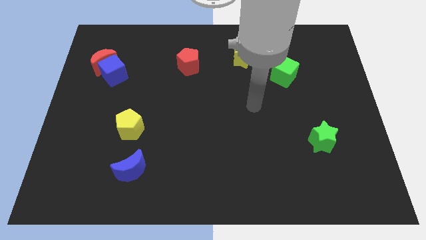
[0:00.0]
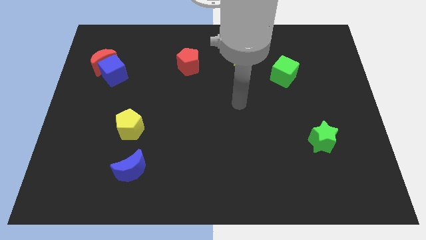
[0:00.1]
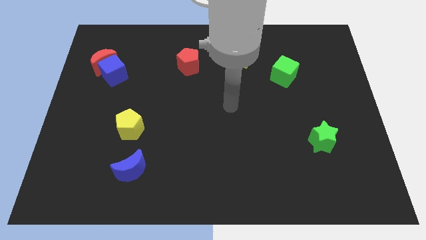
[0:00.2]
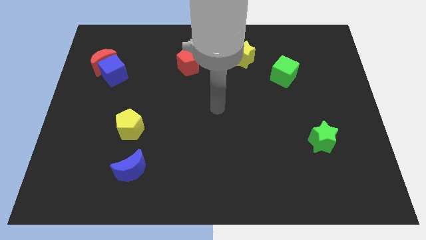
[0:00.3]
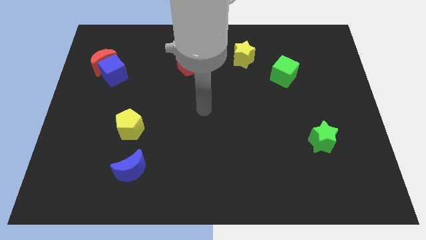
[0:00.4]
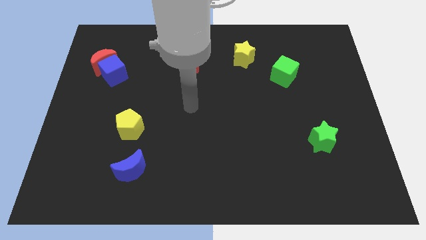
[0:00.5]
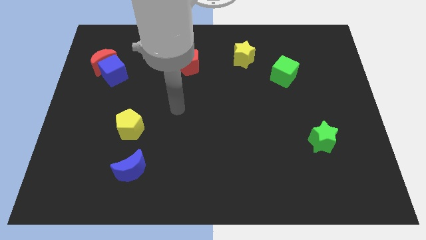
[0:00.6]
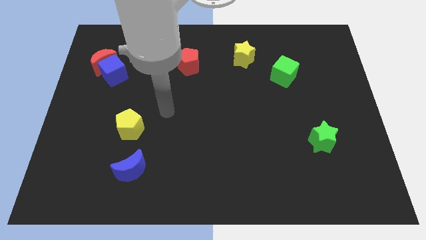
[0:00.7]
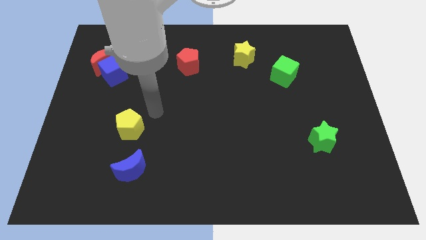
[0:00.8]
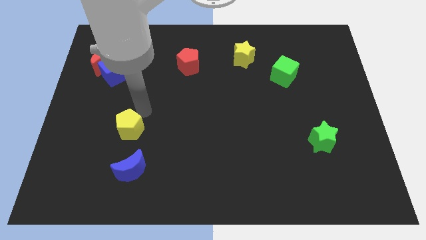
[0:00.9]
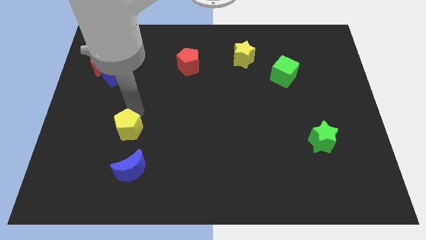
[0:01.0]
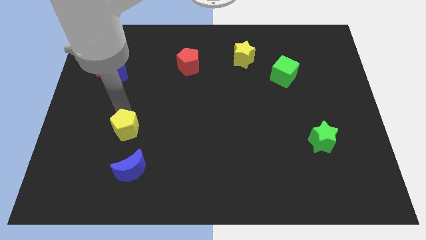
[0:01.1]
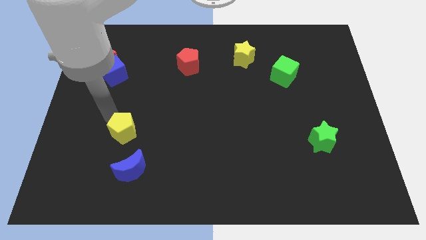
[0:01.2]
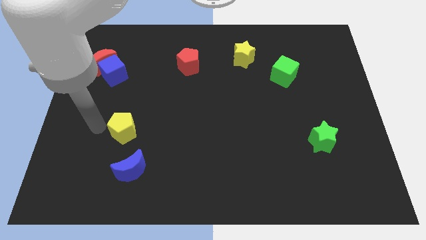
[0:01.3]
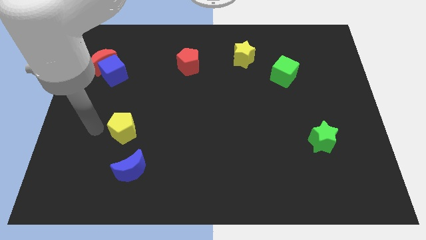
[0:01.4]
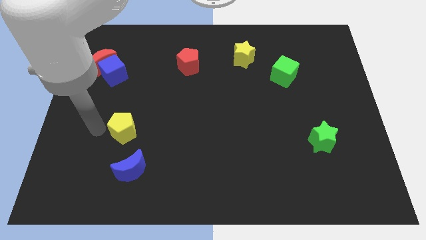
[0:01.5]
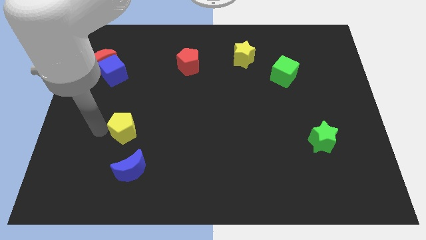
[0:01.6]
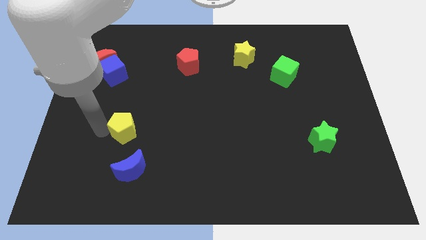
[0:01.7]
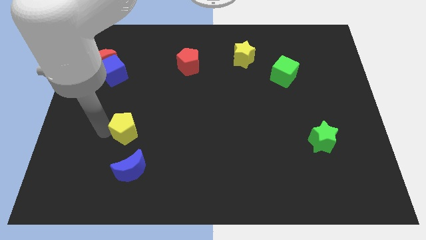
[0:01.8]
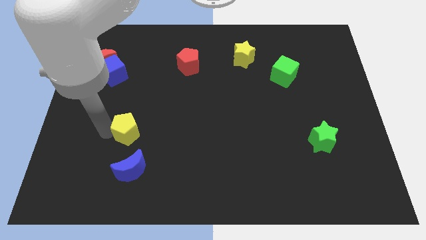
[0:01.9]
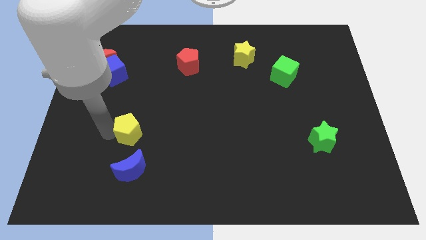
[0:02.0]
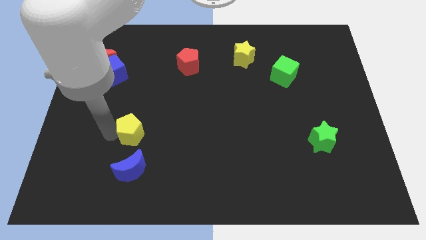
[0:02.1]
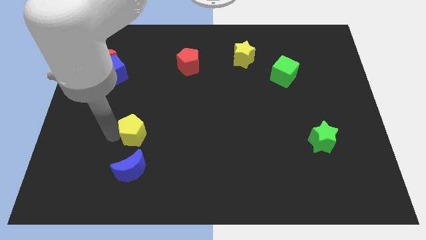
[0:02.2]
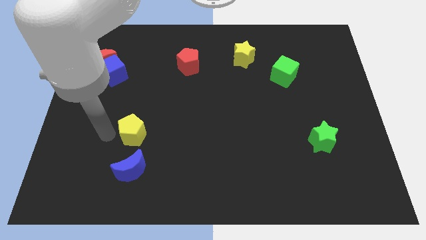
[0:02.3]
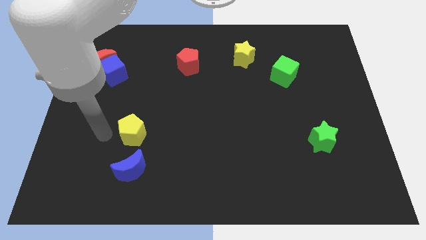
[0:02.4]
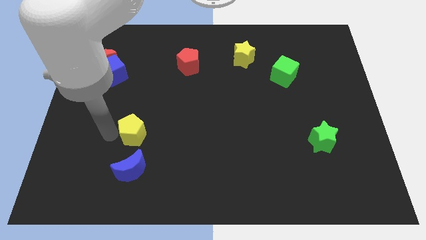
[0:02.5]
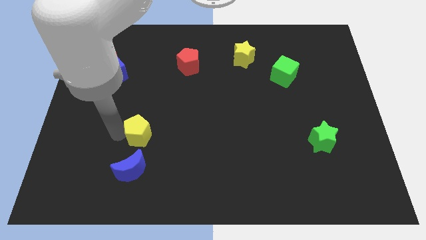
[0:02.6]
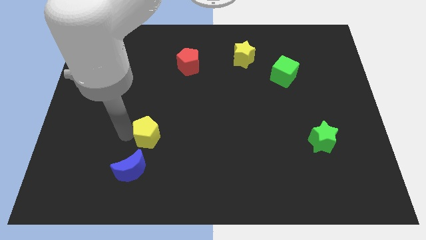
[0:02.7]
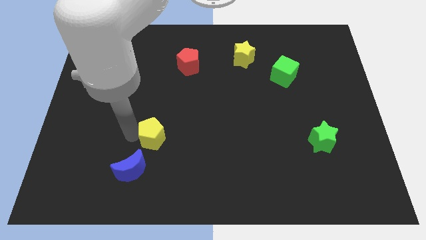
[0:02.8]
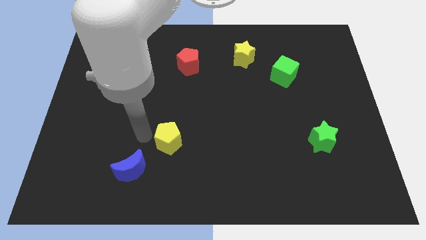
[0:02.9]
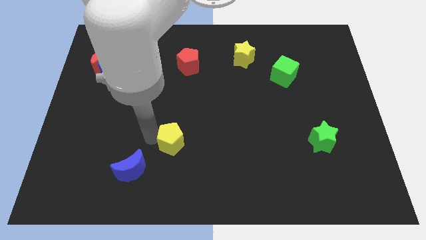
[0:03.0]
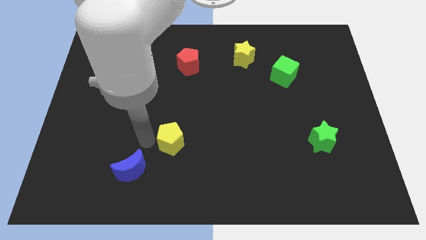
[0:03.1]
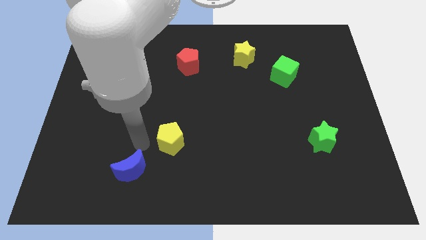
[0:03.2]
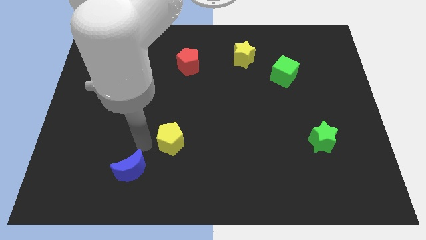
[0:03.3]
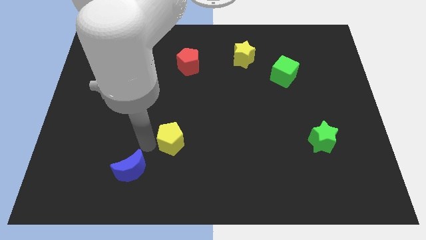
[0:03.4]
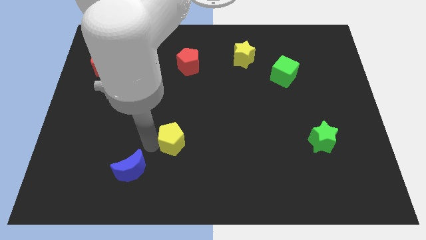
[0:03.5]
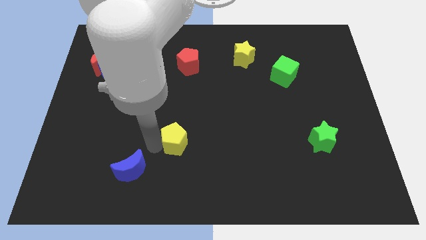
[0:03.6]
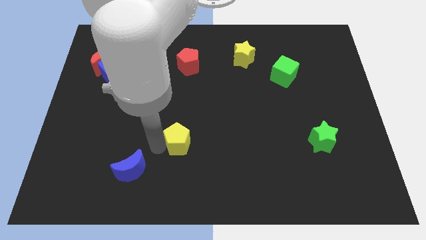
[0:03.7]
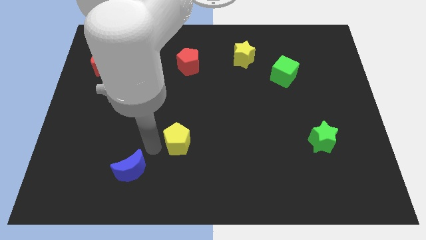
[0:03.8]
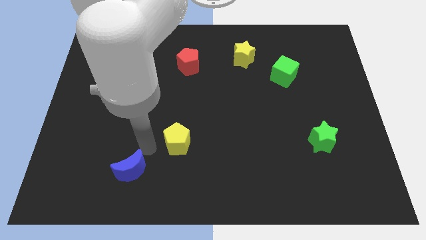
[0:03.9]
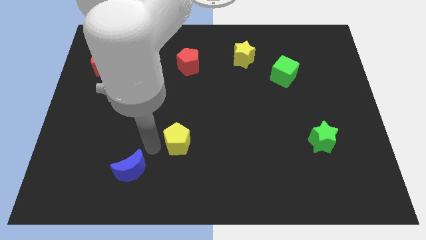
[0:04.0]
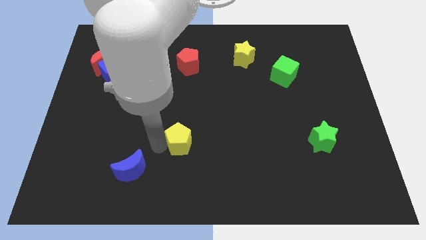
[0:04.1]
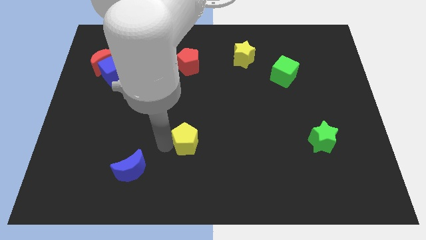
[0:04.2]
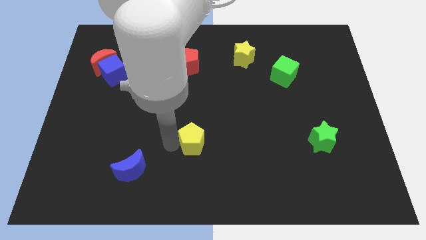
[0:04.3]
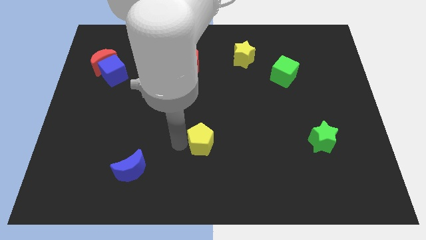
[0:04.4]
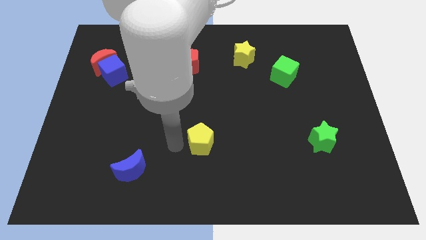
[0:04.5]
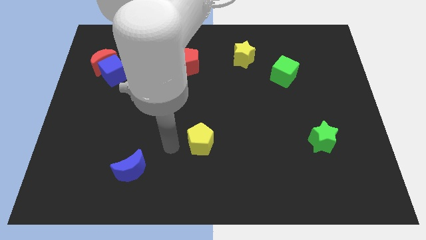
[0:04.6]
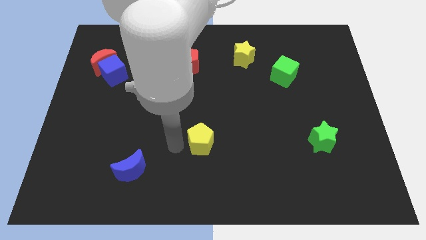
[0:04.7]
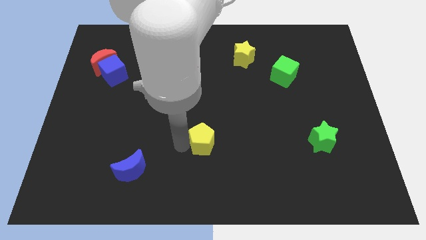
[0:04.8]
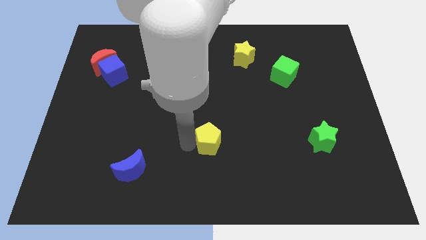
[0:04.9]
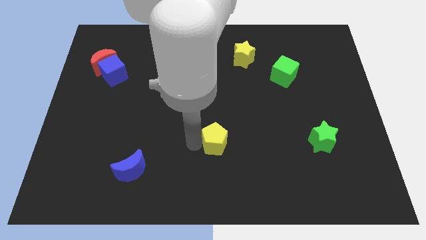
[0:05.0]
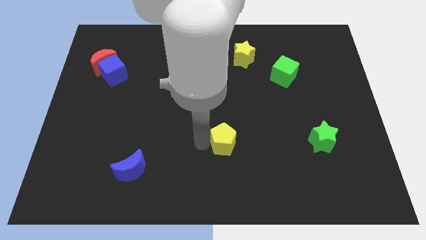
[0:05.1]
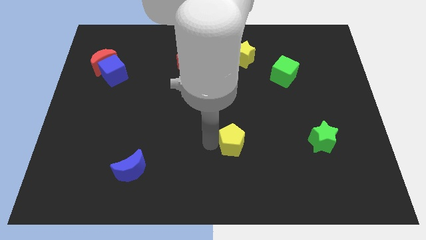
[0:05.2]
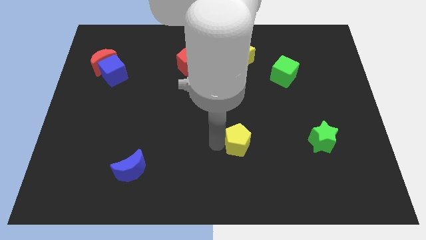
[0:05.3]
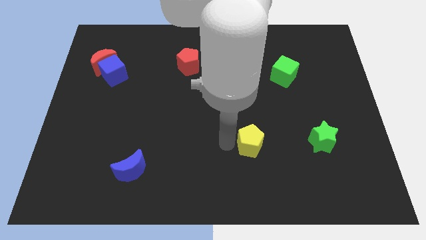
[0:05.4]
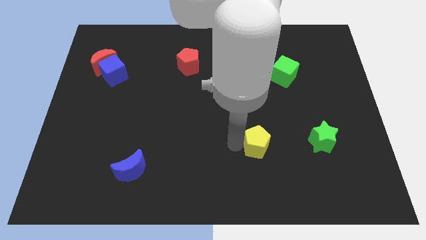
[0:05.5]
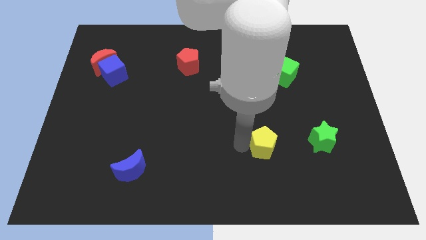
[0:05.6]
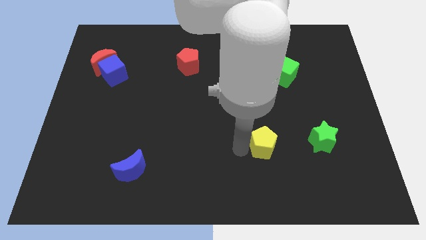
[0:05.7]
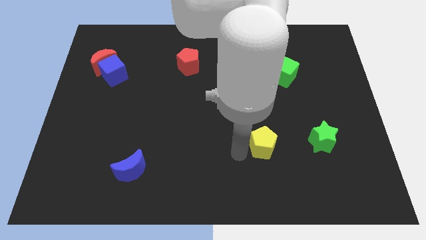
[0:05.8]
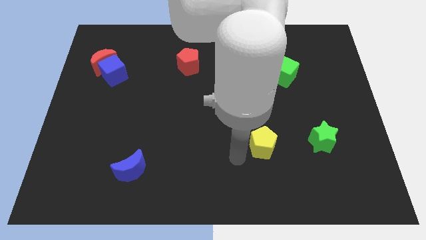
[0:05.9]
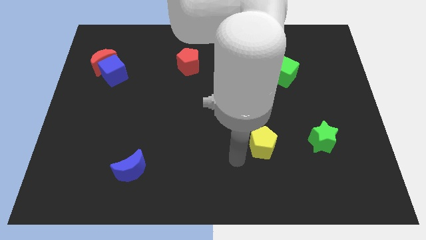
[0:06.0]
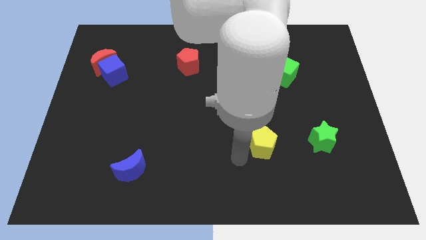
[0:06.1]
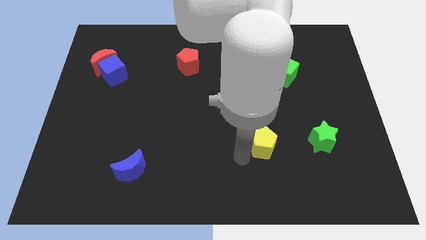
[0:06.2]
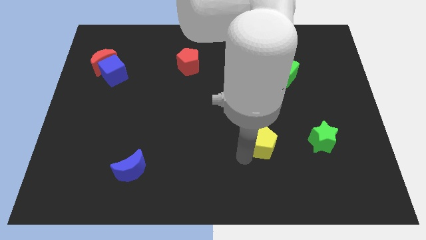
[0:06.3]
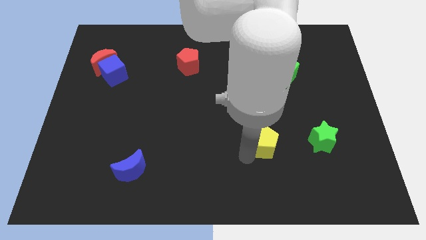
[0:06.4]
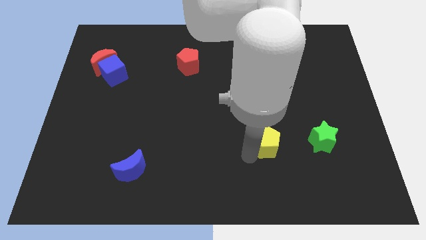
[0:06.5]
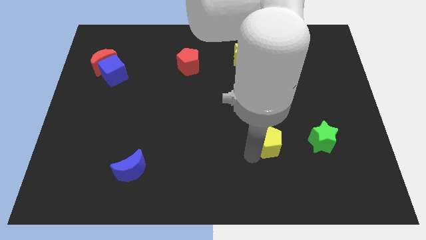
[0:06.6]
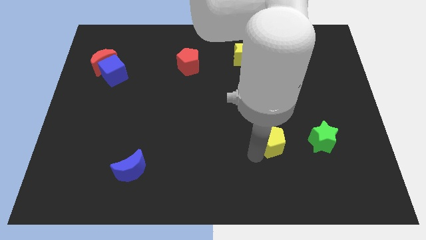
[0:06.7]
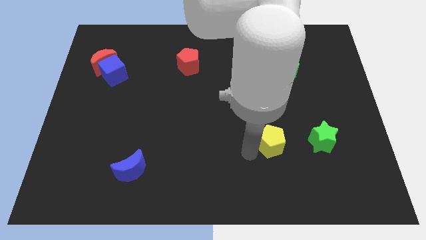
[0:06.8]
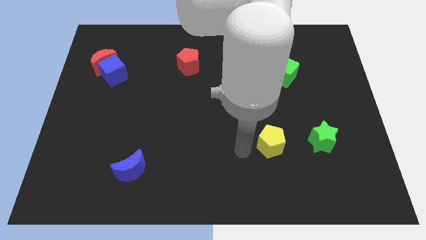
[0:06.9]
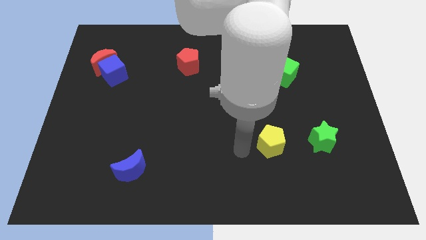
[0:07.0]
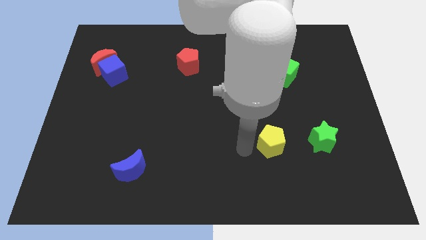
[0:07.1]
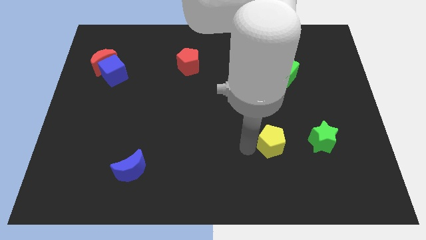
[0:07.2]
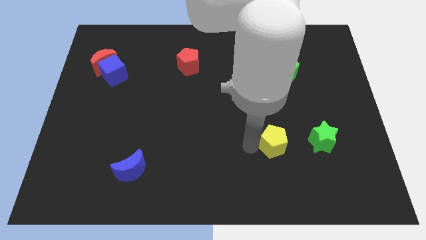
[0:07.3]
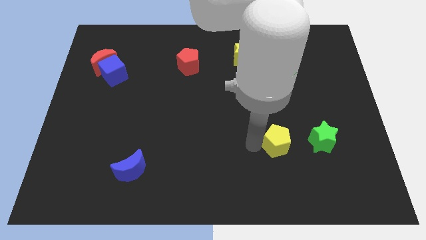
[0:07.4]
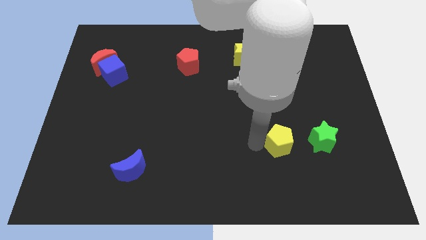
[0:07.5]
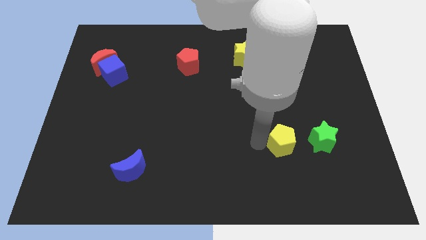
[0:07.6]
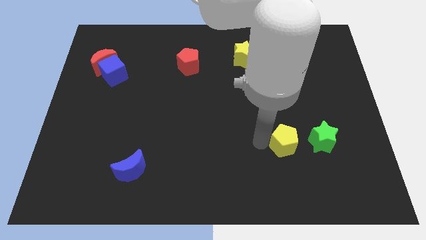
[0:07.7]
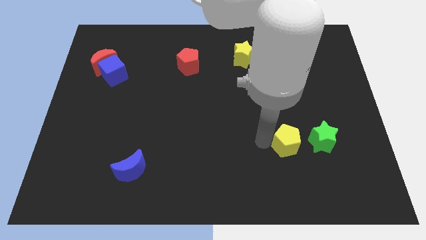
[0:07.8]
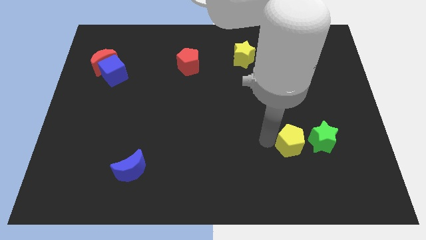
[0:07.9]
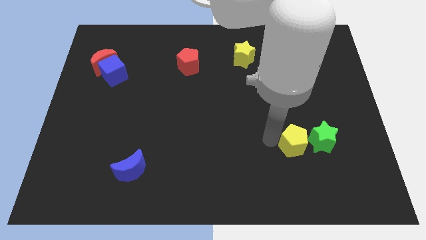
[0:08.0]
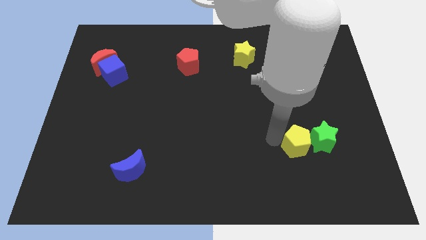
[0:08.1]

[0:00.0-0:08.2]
move the yellow pentagon towards the green star
